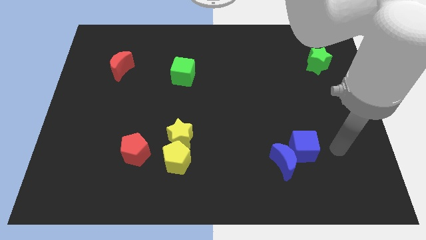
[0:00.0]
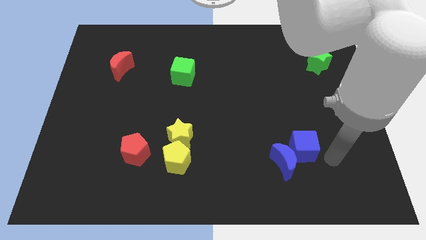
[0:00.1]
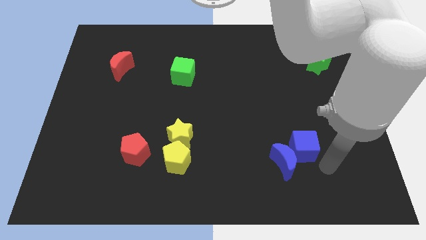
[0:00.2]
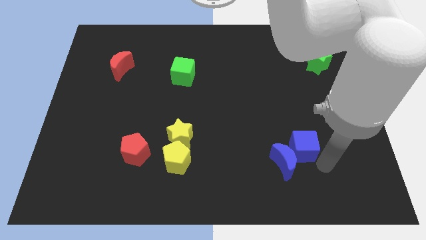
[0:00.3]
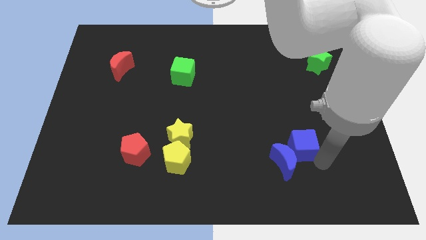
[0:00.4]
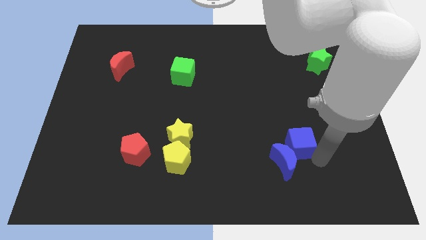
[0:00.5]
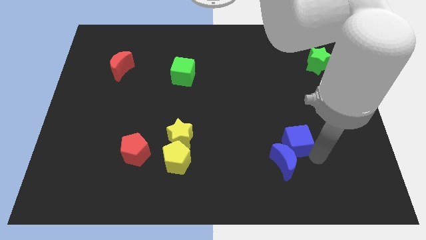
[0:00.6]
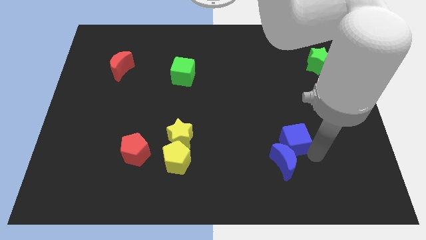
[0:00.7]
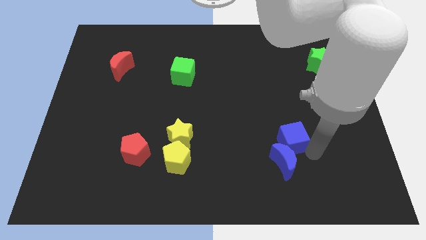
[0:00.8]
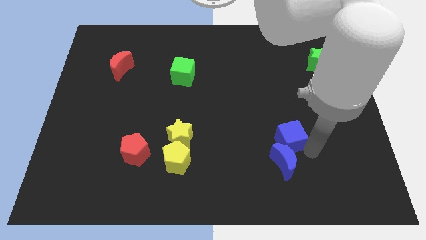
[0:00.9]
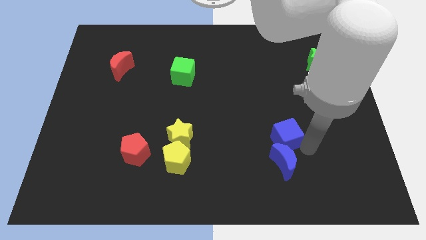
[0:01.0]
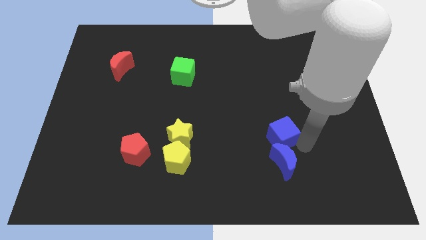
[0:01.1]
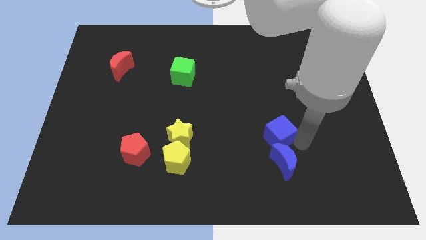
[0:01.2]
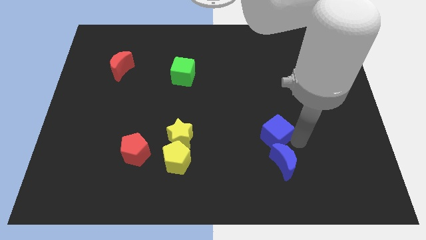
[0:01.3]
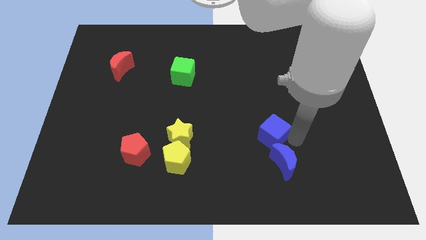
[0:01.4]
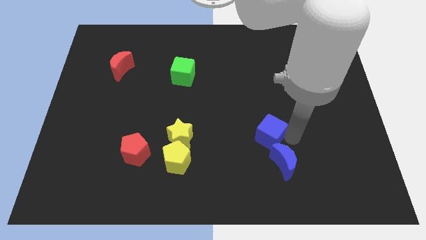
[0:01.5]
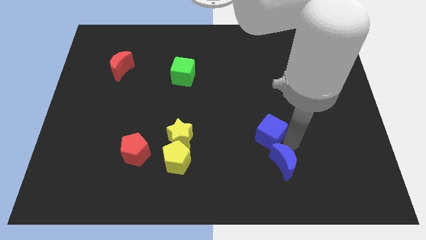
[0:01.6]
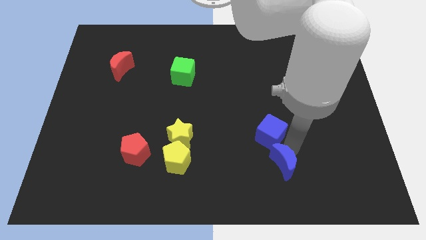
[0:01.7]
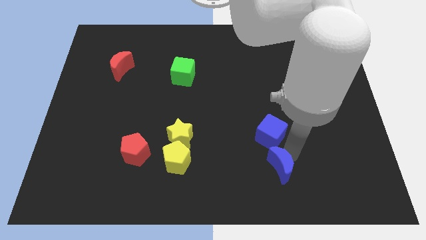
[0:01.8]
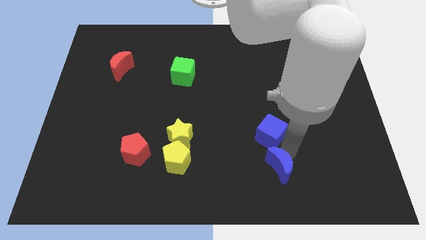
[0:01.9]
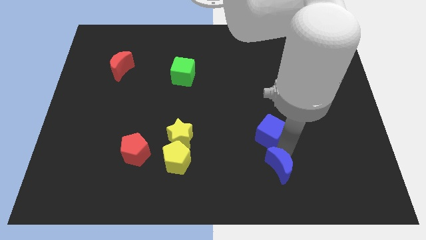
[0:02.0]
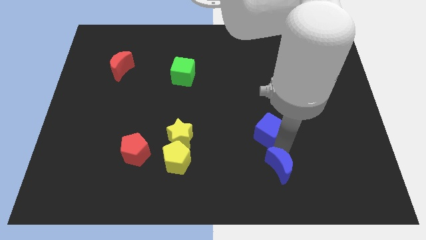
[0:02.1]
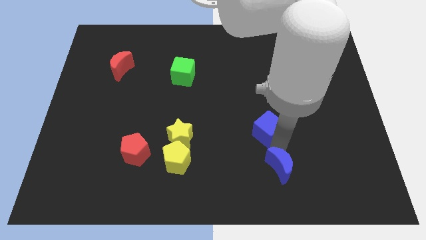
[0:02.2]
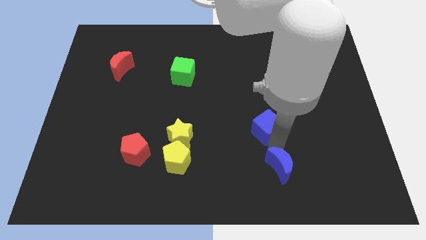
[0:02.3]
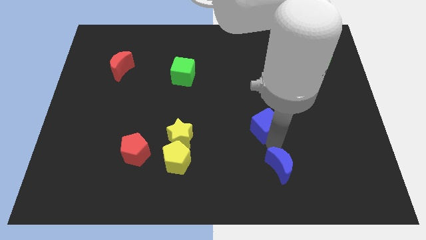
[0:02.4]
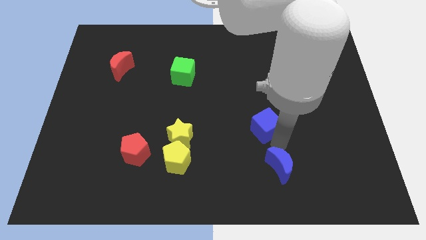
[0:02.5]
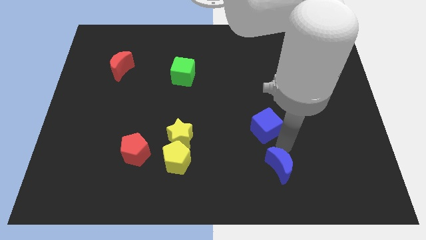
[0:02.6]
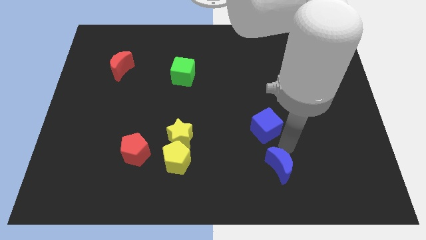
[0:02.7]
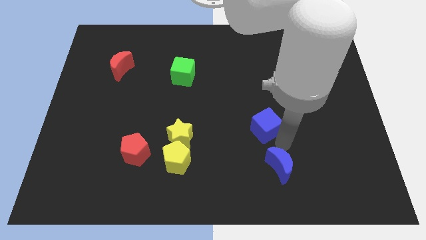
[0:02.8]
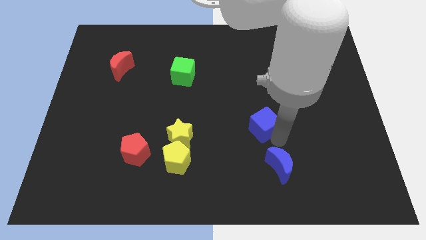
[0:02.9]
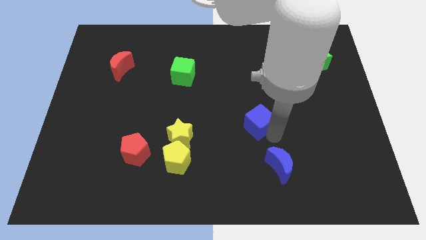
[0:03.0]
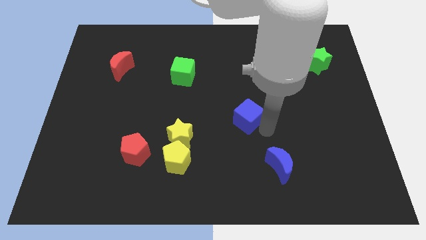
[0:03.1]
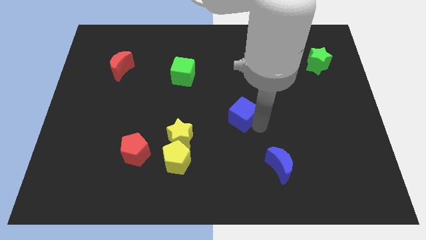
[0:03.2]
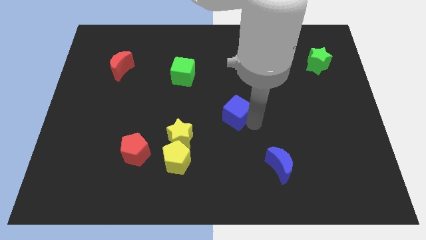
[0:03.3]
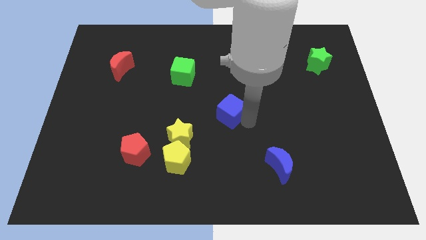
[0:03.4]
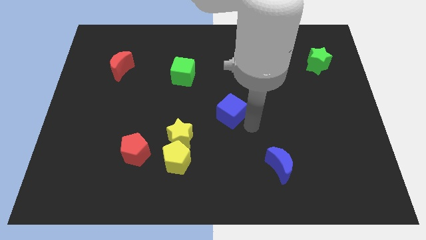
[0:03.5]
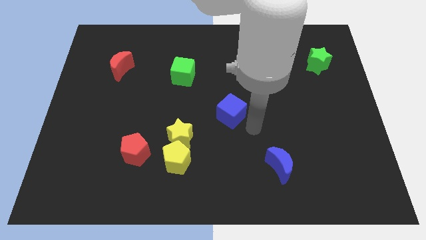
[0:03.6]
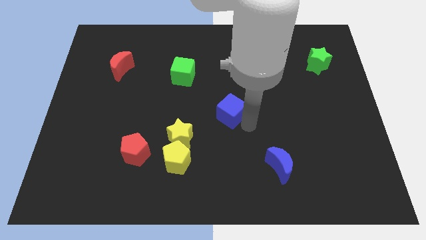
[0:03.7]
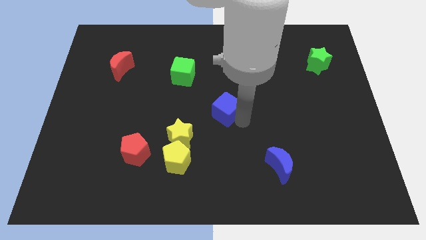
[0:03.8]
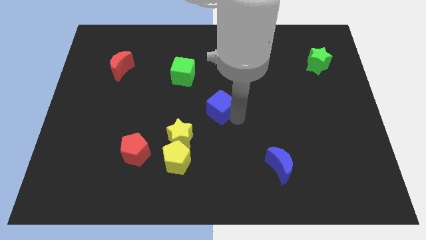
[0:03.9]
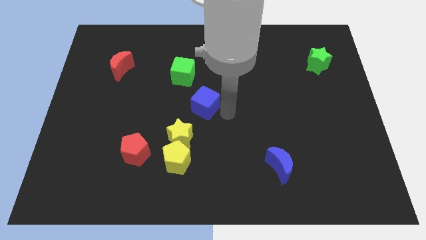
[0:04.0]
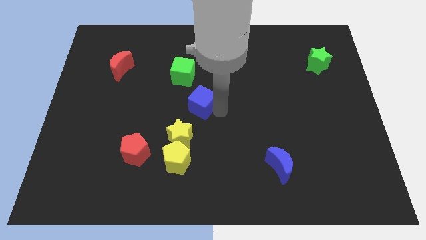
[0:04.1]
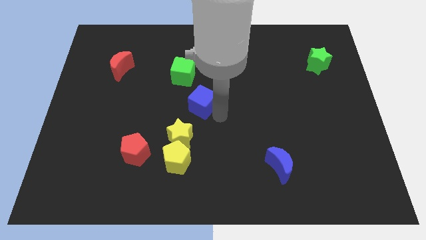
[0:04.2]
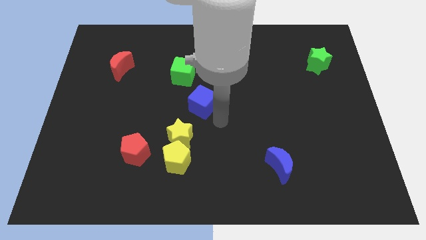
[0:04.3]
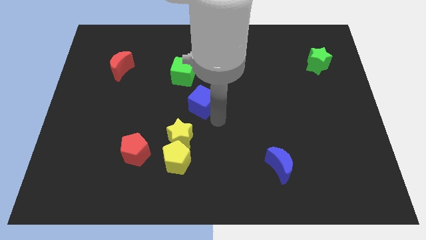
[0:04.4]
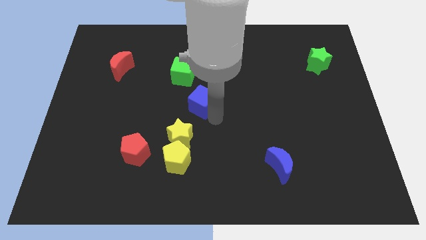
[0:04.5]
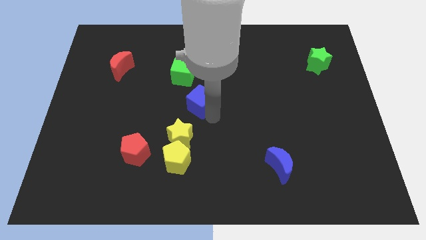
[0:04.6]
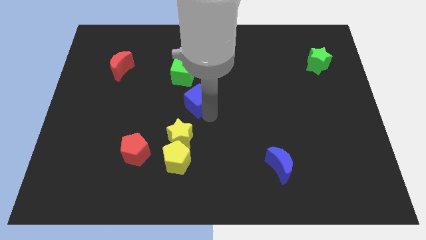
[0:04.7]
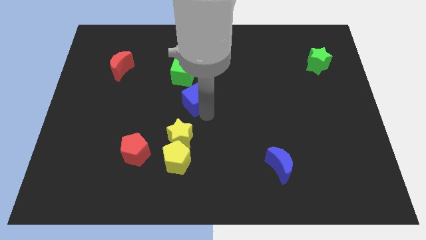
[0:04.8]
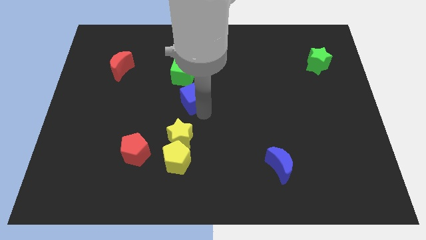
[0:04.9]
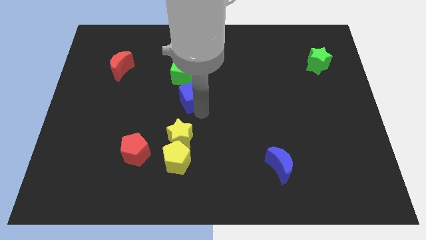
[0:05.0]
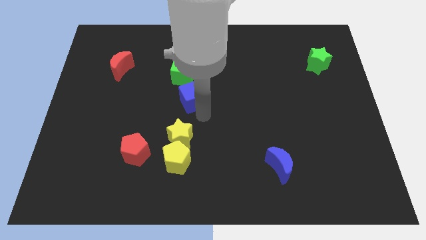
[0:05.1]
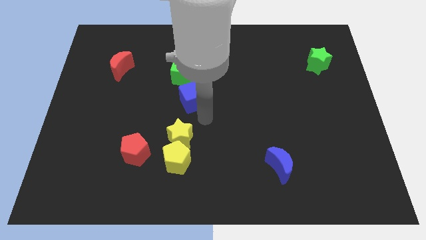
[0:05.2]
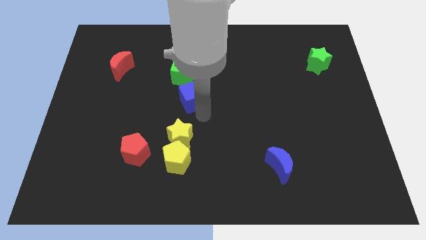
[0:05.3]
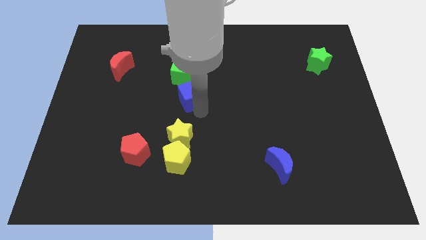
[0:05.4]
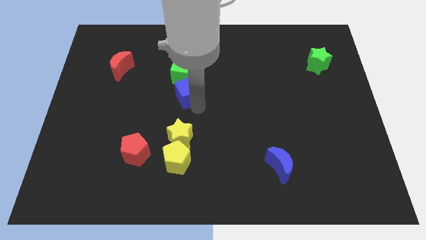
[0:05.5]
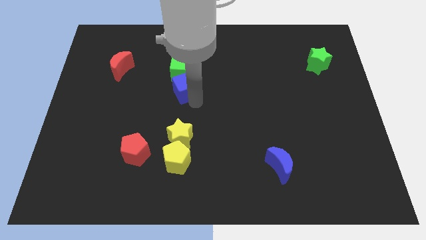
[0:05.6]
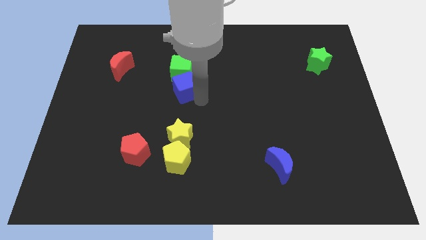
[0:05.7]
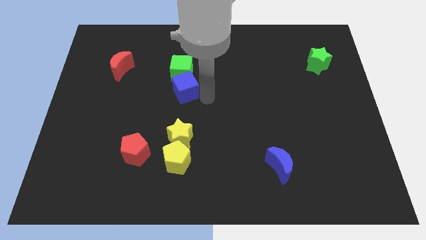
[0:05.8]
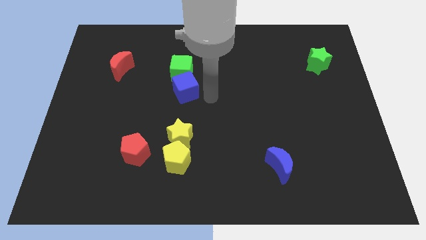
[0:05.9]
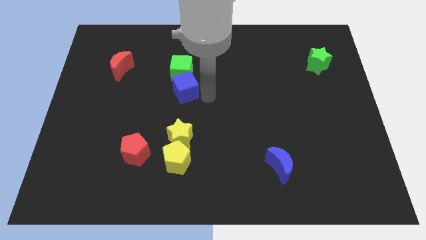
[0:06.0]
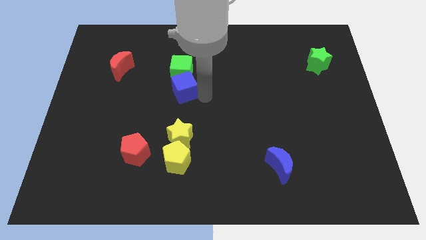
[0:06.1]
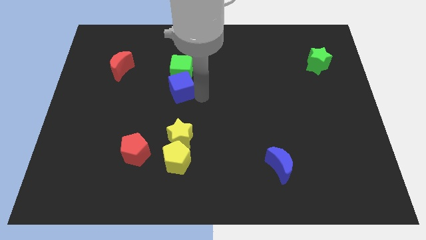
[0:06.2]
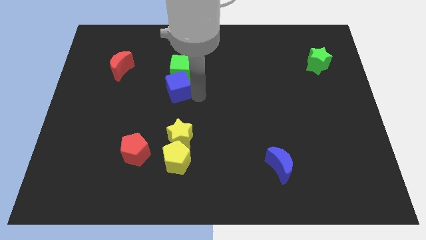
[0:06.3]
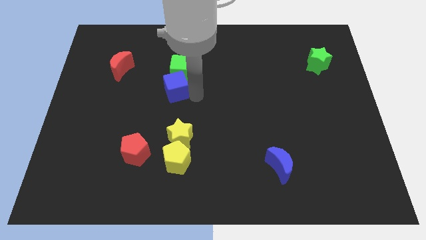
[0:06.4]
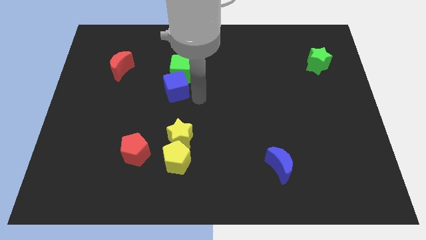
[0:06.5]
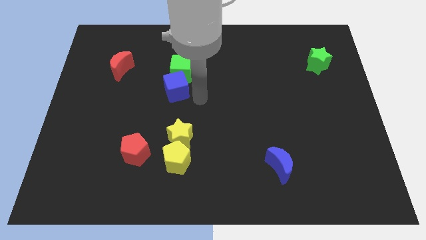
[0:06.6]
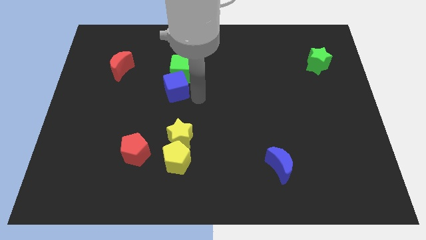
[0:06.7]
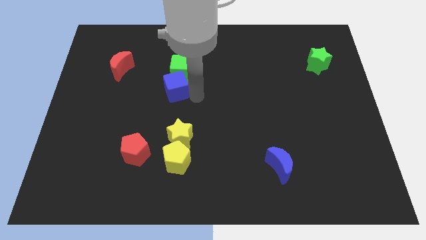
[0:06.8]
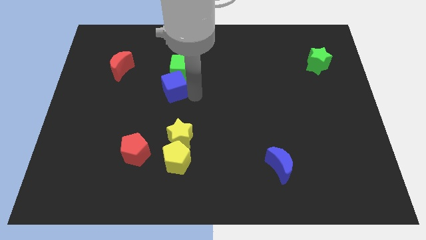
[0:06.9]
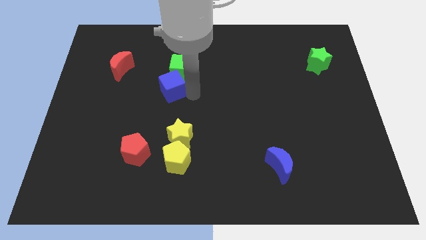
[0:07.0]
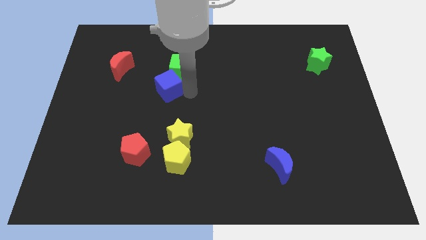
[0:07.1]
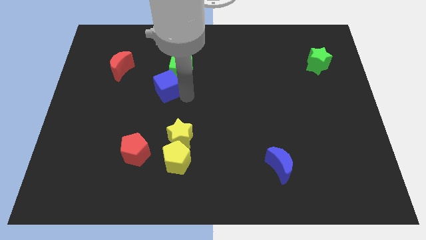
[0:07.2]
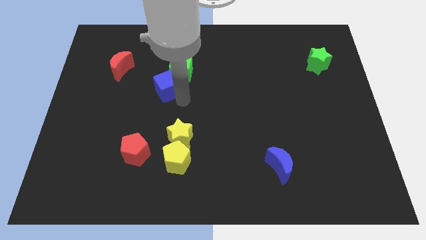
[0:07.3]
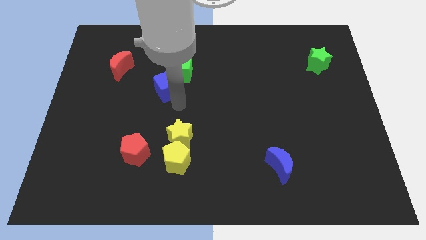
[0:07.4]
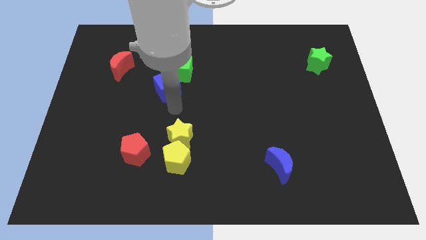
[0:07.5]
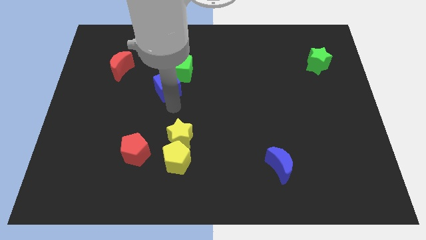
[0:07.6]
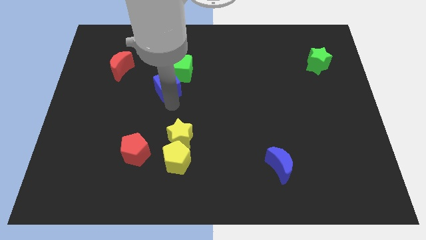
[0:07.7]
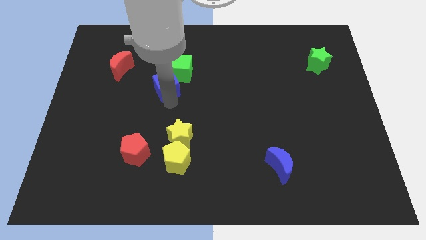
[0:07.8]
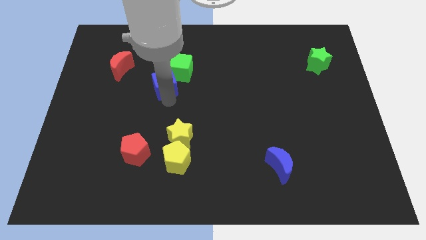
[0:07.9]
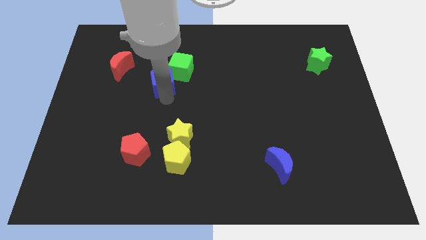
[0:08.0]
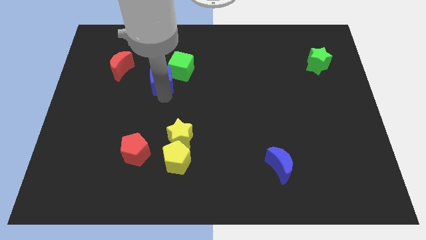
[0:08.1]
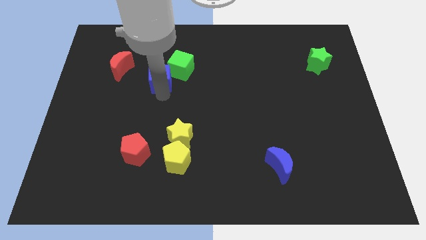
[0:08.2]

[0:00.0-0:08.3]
slide the blue cube to the right of the red moon
